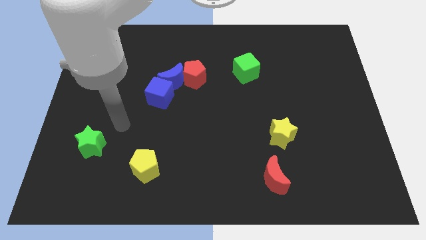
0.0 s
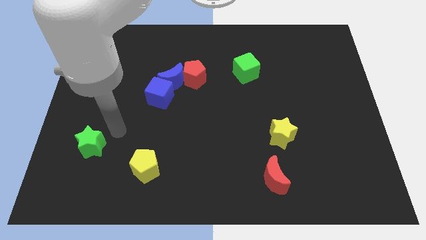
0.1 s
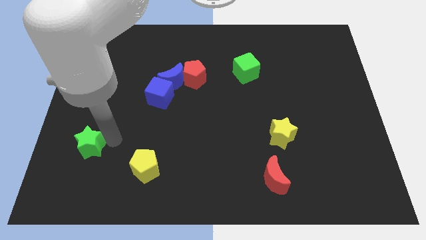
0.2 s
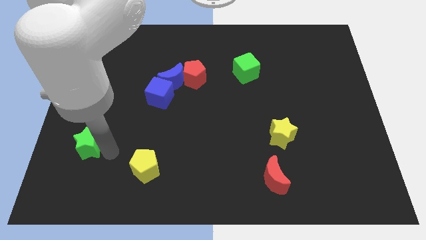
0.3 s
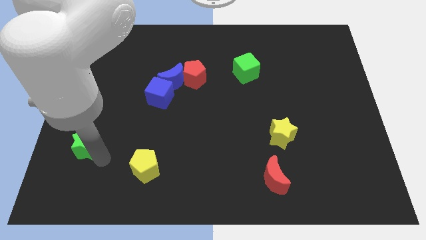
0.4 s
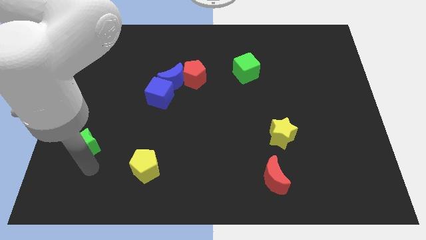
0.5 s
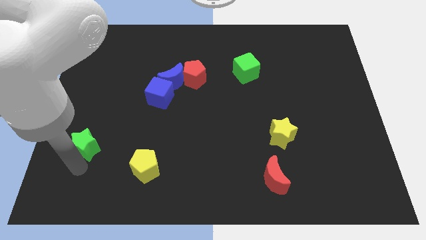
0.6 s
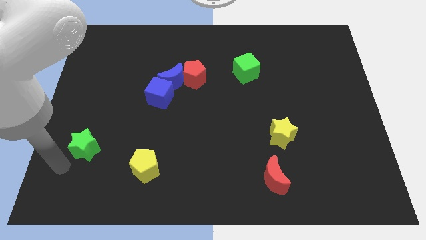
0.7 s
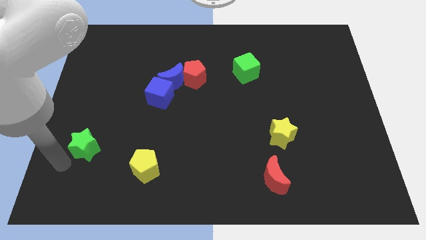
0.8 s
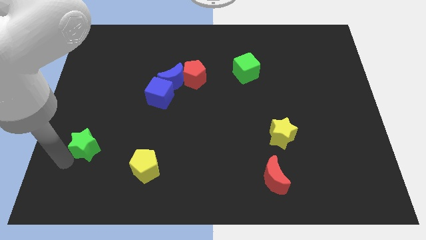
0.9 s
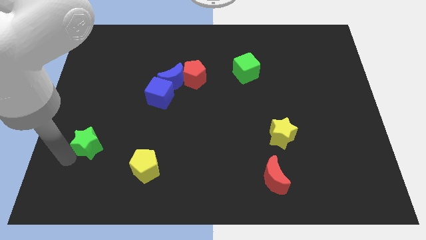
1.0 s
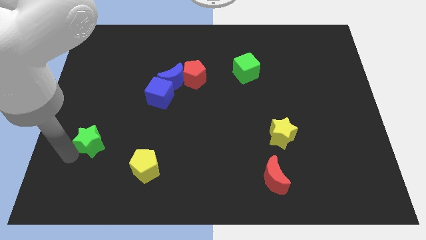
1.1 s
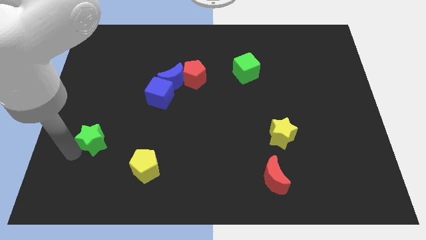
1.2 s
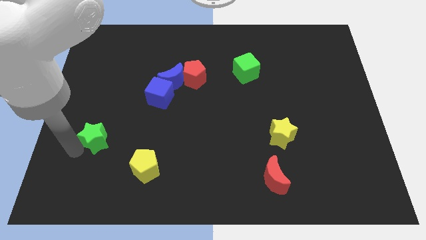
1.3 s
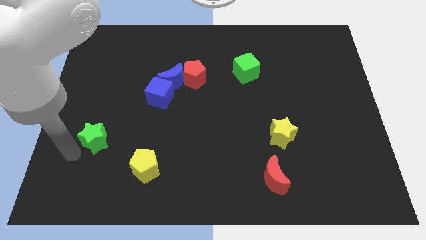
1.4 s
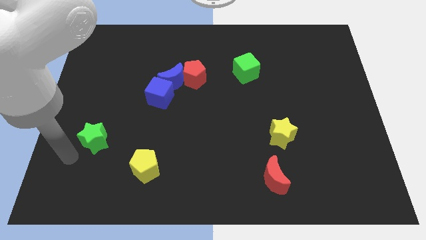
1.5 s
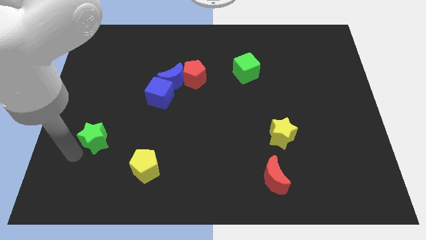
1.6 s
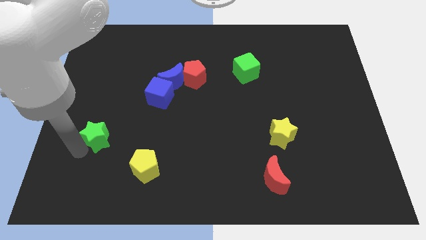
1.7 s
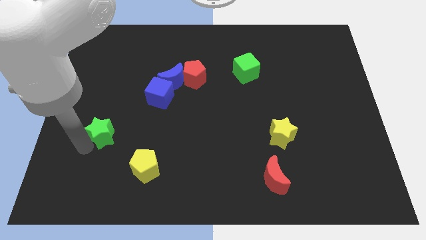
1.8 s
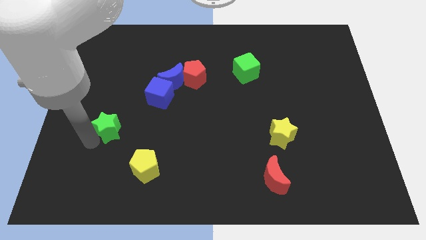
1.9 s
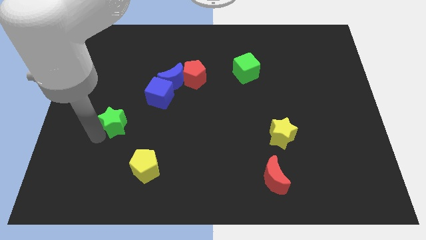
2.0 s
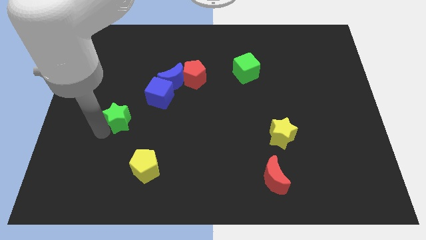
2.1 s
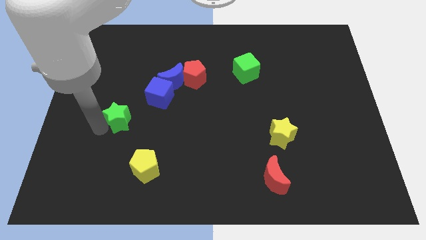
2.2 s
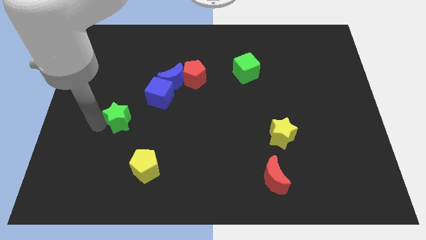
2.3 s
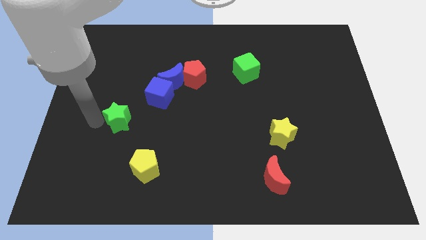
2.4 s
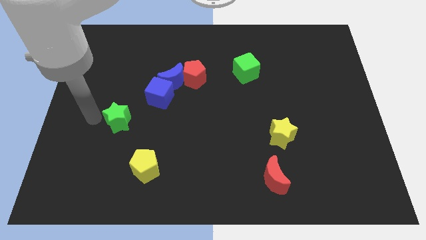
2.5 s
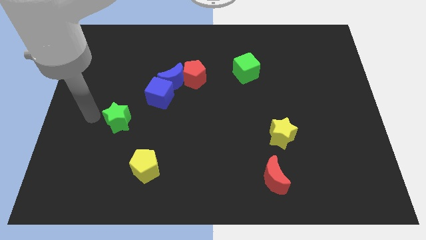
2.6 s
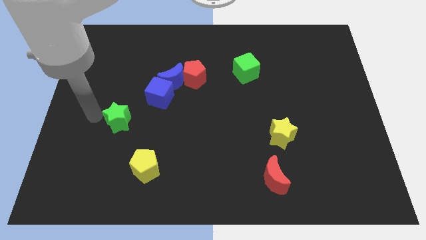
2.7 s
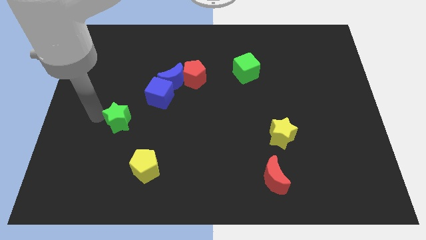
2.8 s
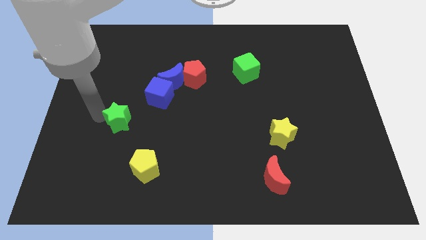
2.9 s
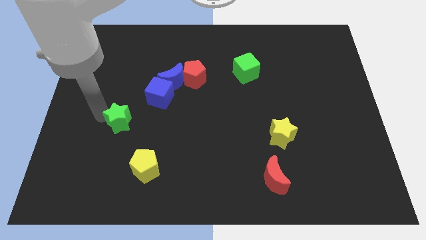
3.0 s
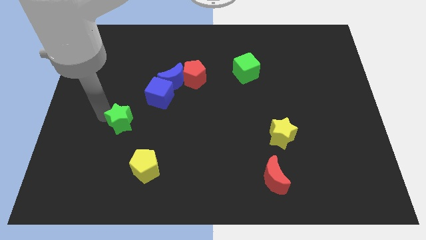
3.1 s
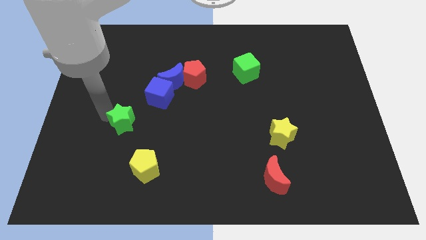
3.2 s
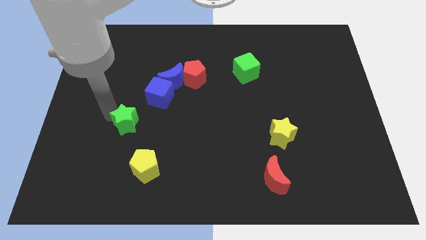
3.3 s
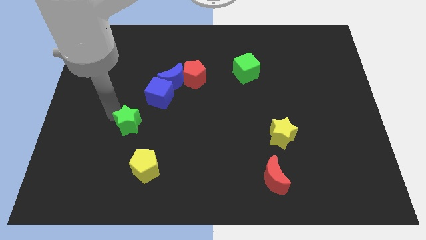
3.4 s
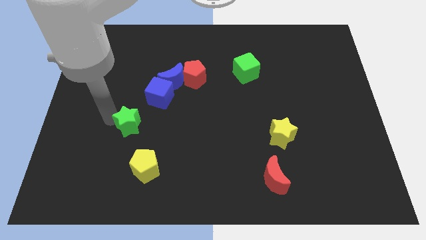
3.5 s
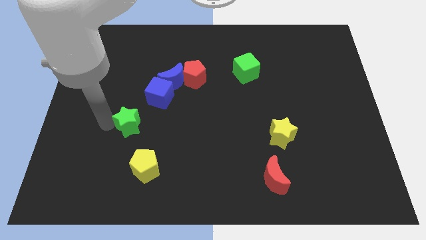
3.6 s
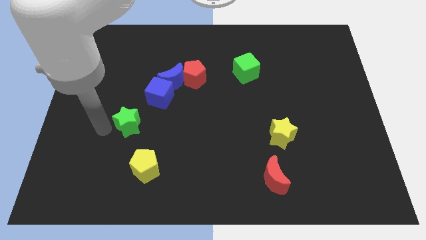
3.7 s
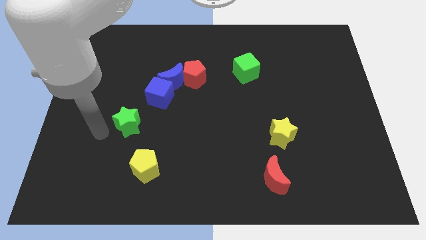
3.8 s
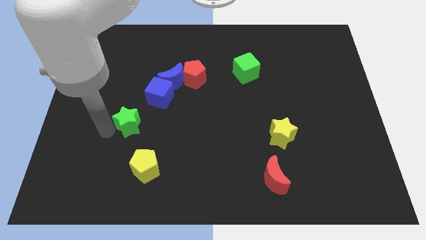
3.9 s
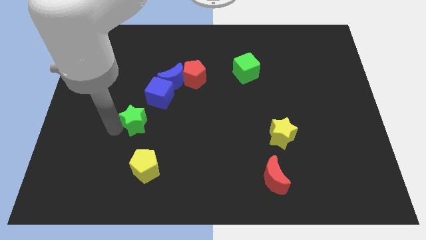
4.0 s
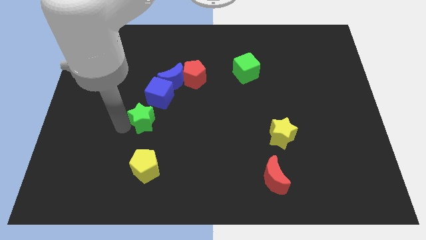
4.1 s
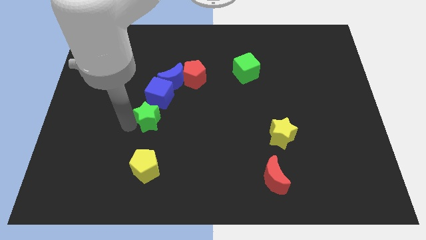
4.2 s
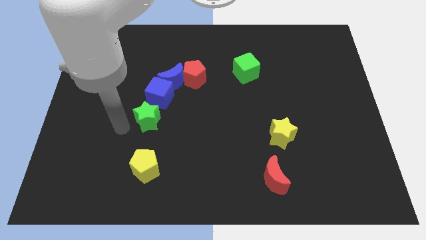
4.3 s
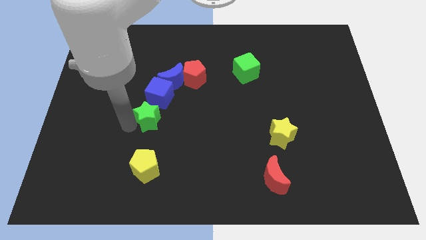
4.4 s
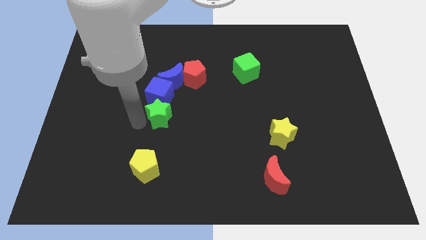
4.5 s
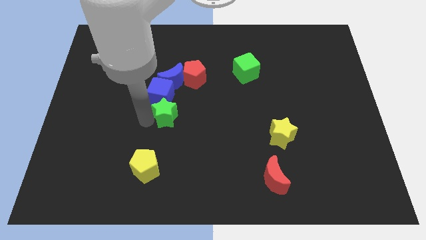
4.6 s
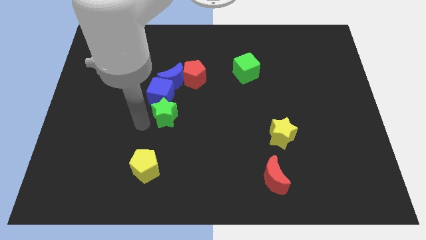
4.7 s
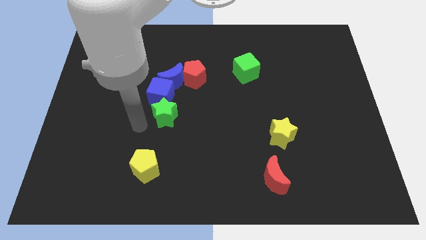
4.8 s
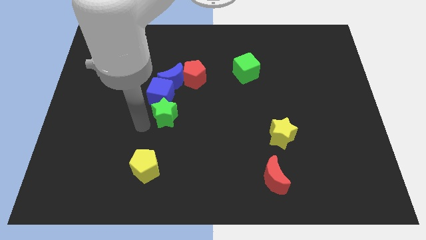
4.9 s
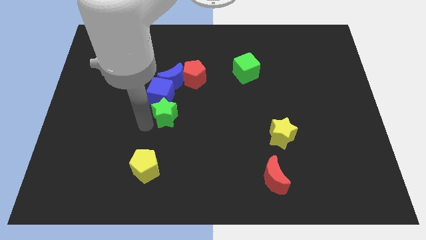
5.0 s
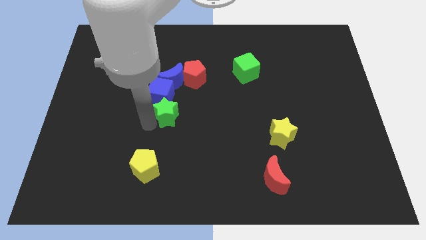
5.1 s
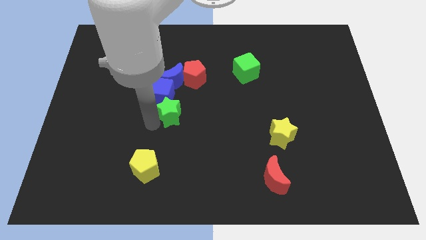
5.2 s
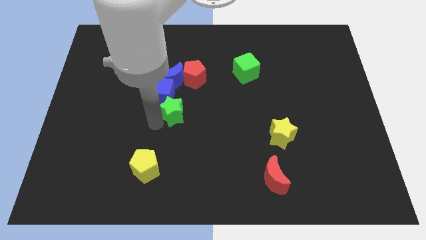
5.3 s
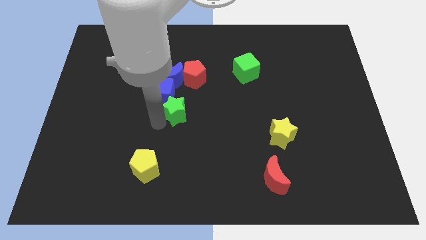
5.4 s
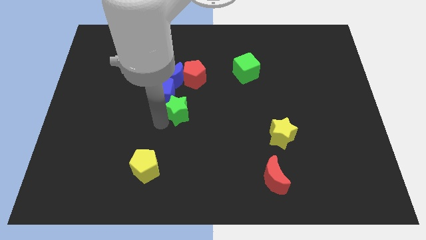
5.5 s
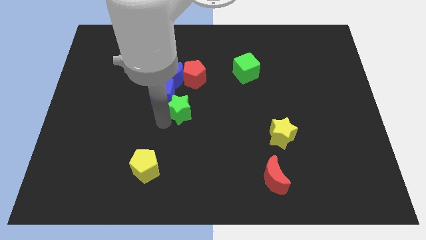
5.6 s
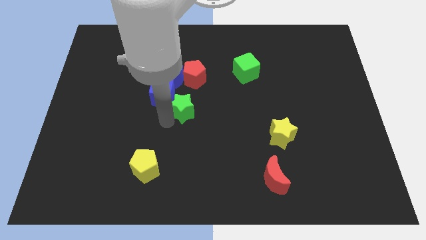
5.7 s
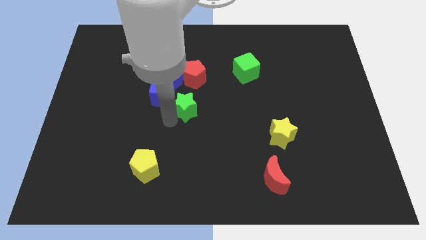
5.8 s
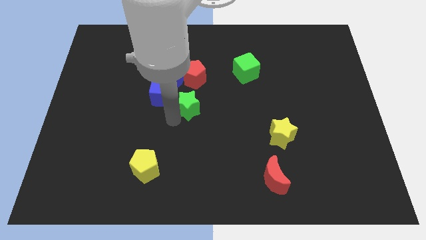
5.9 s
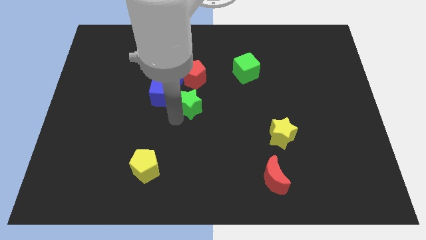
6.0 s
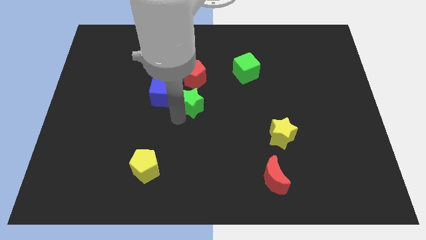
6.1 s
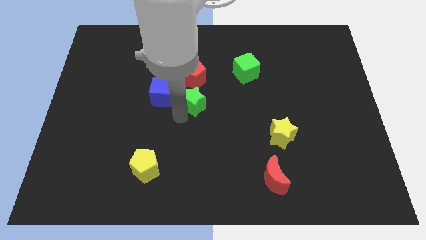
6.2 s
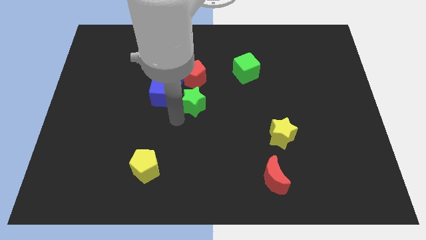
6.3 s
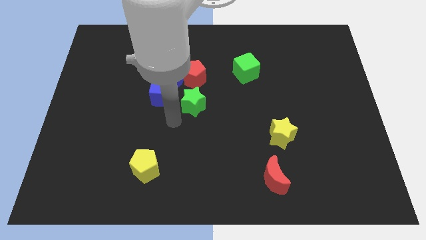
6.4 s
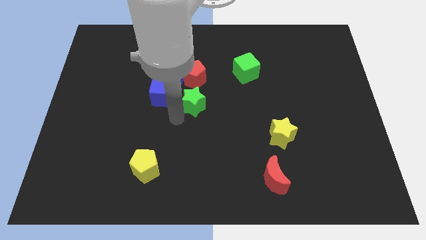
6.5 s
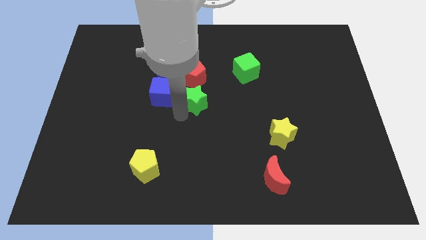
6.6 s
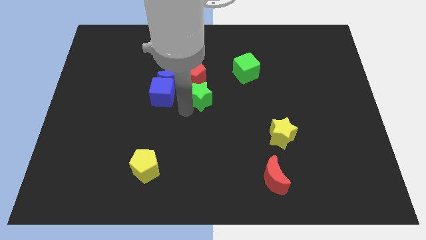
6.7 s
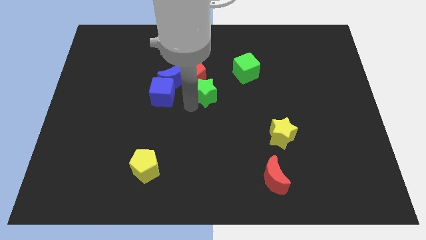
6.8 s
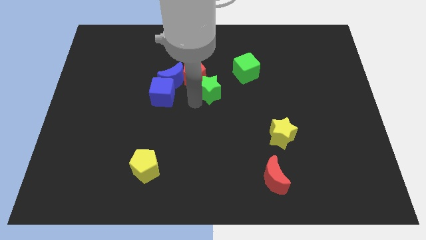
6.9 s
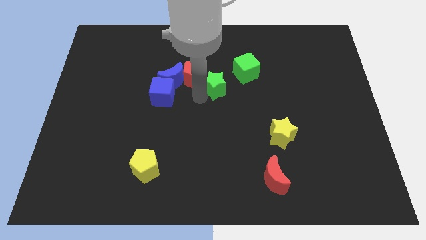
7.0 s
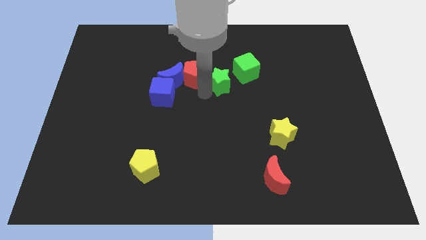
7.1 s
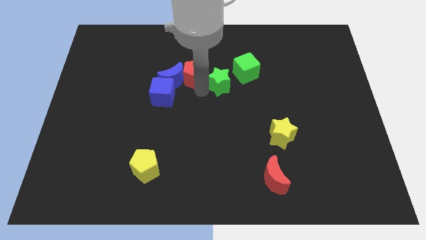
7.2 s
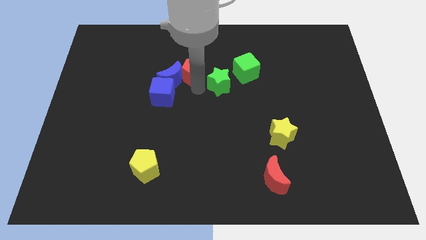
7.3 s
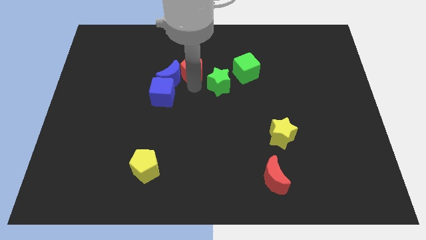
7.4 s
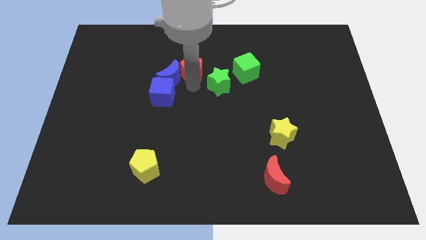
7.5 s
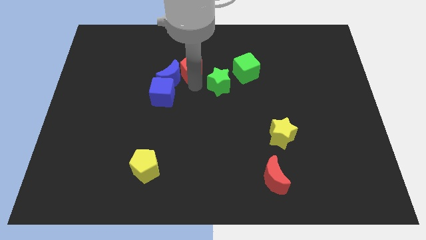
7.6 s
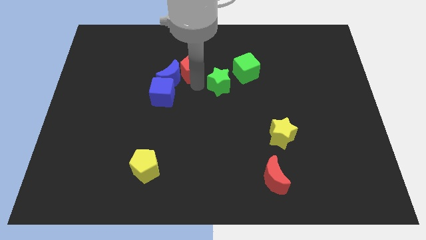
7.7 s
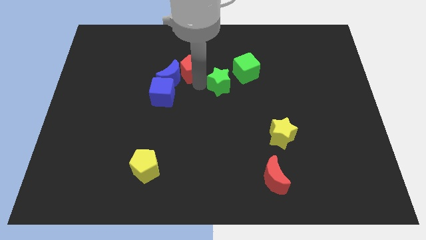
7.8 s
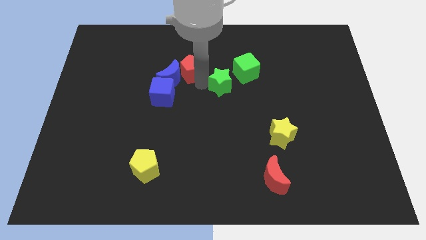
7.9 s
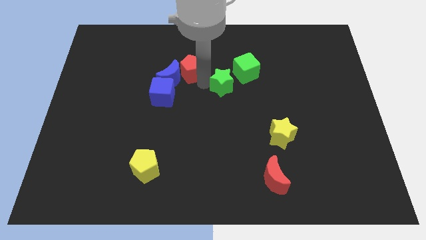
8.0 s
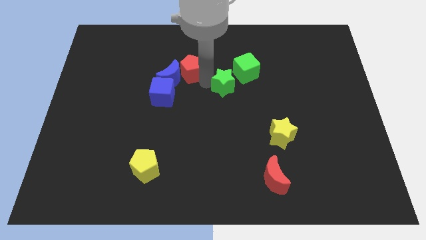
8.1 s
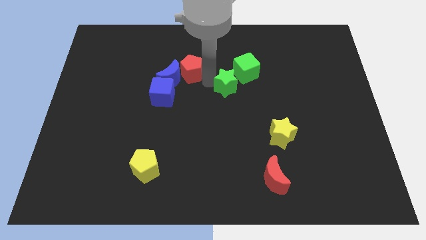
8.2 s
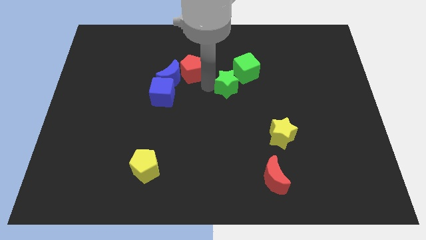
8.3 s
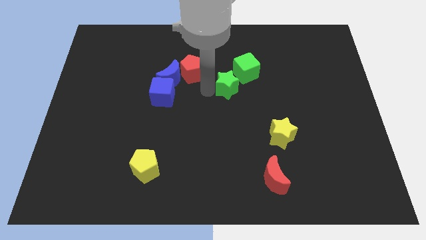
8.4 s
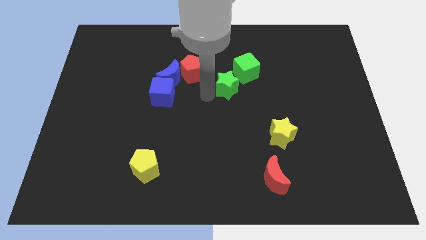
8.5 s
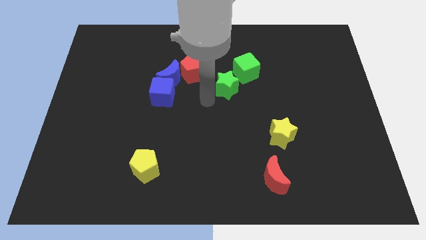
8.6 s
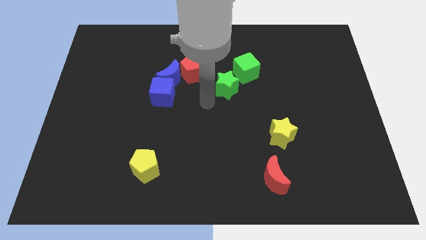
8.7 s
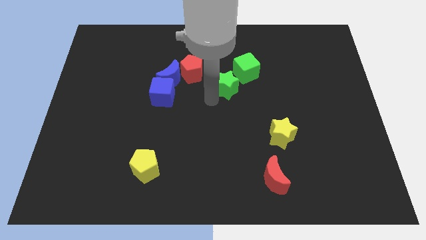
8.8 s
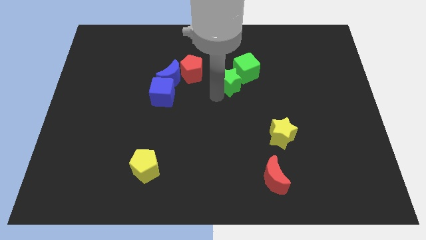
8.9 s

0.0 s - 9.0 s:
slide the green star to the green cube
